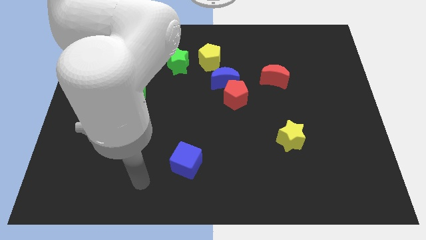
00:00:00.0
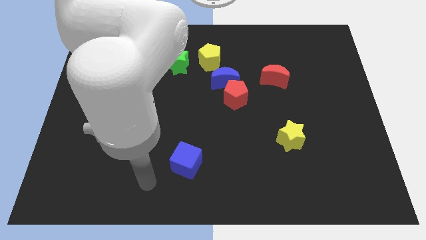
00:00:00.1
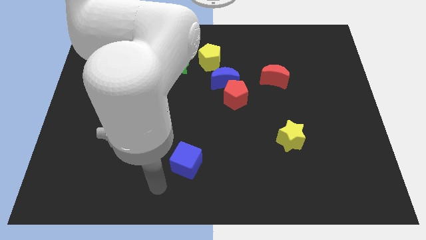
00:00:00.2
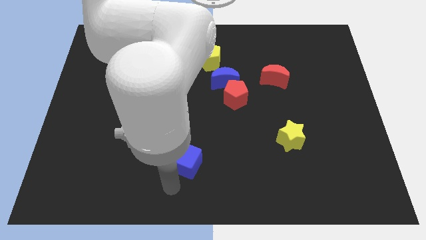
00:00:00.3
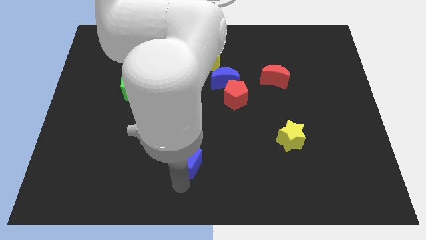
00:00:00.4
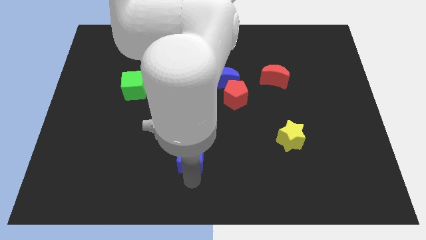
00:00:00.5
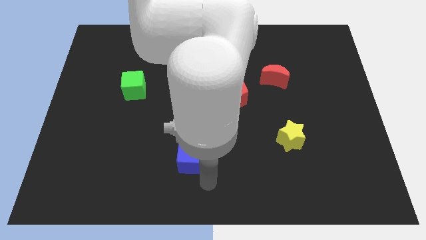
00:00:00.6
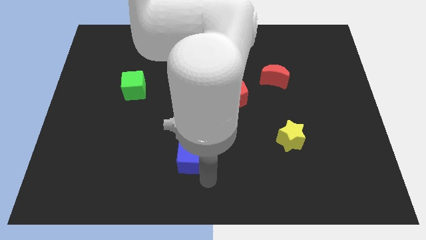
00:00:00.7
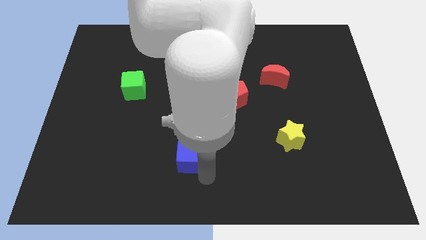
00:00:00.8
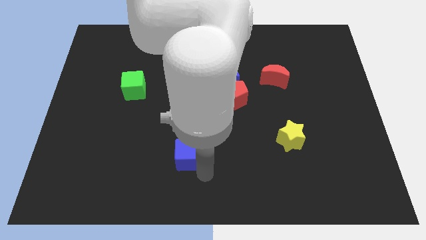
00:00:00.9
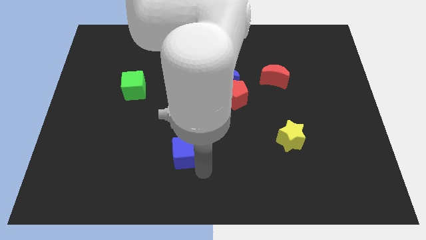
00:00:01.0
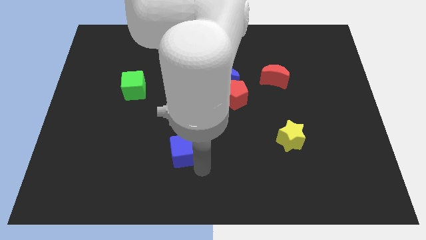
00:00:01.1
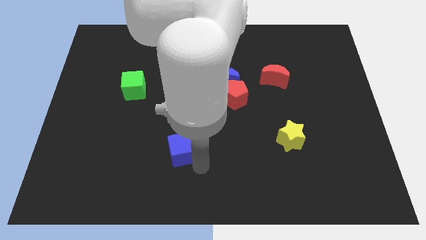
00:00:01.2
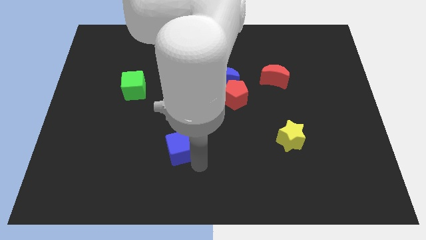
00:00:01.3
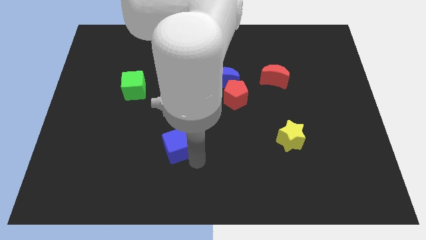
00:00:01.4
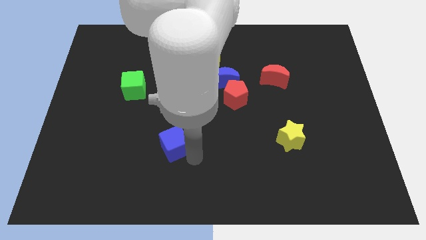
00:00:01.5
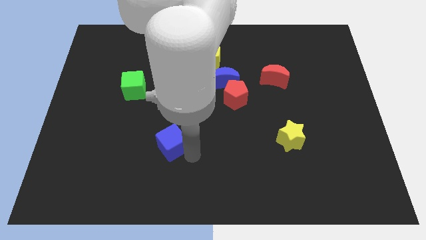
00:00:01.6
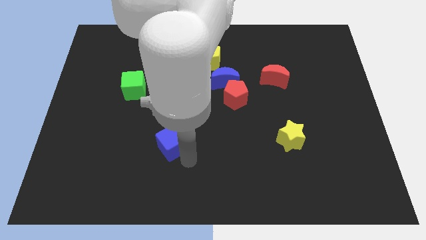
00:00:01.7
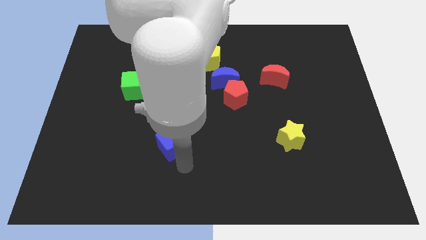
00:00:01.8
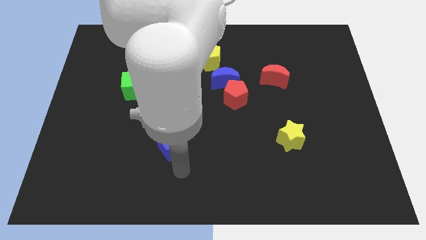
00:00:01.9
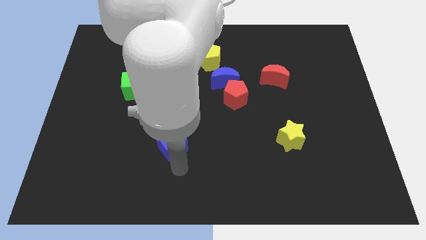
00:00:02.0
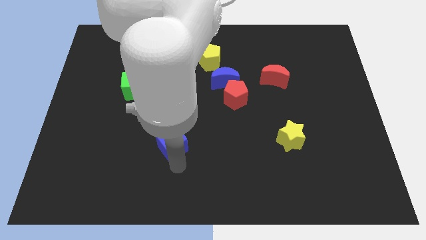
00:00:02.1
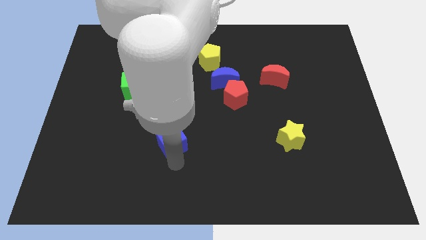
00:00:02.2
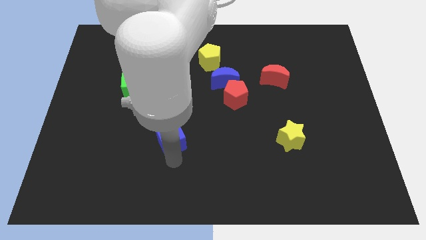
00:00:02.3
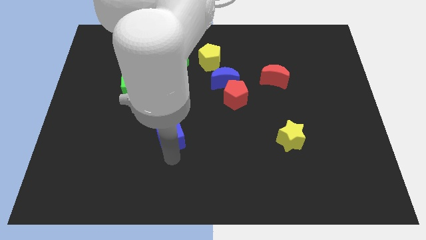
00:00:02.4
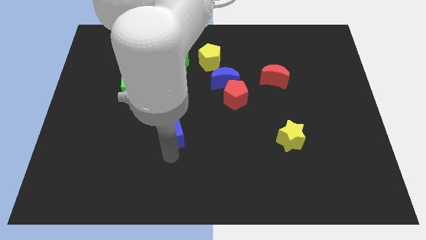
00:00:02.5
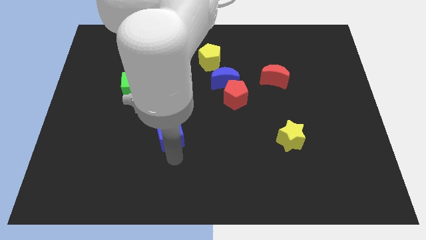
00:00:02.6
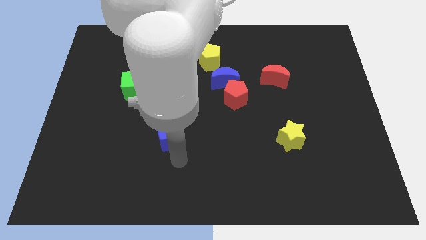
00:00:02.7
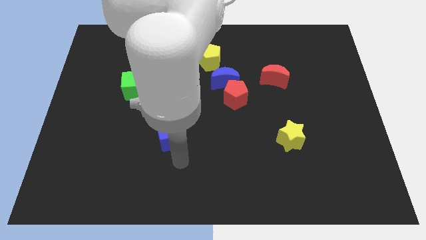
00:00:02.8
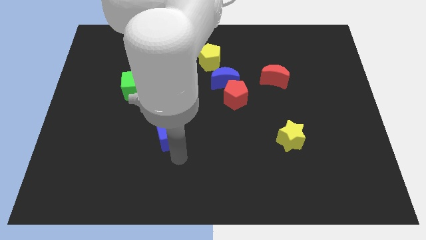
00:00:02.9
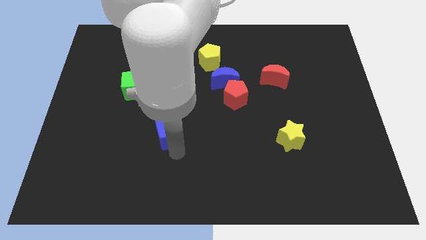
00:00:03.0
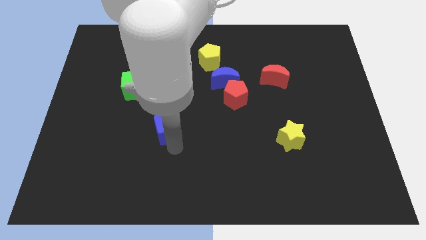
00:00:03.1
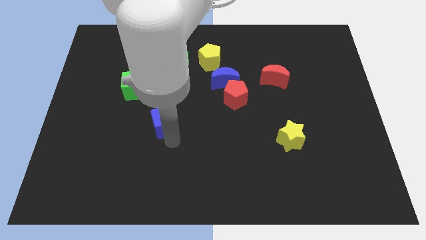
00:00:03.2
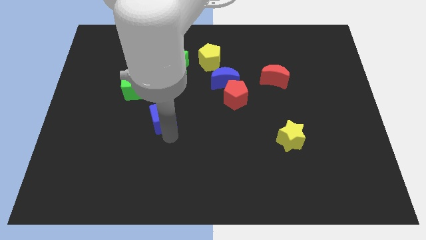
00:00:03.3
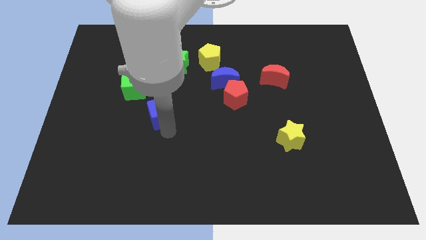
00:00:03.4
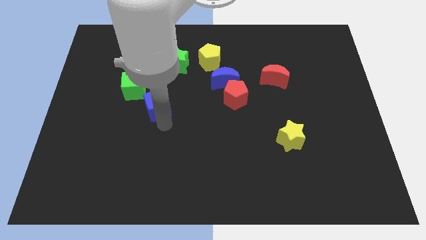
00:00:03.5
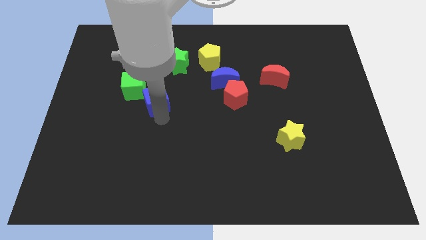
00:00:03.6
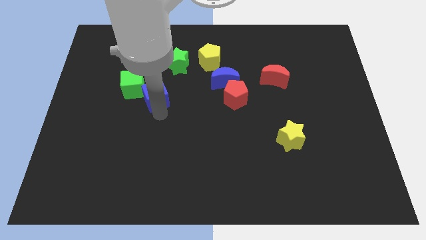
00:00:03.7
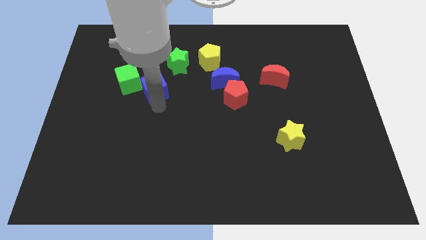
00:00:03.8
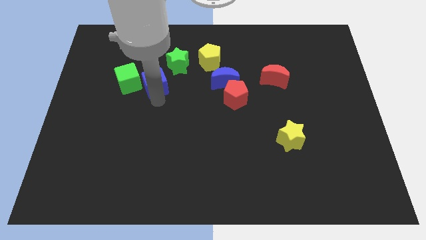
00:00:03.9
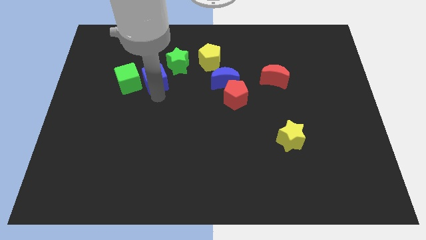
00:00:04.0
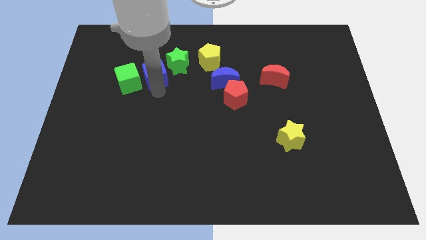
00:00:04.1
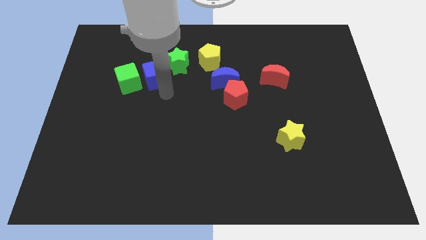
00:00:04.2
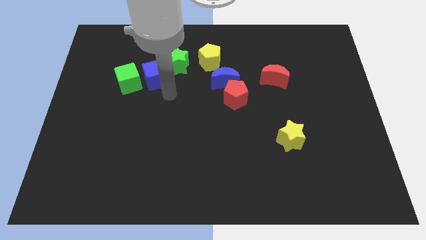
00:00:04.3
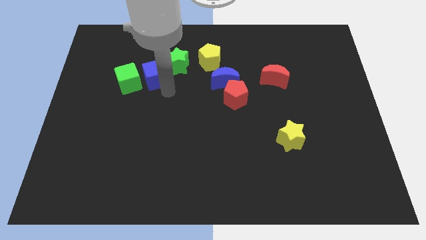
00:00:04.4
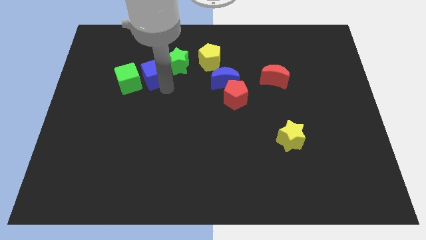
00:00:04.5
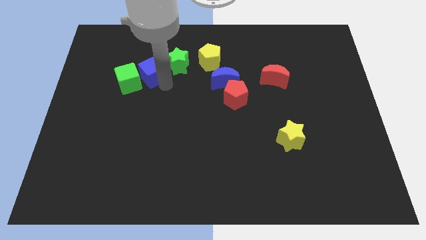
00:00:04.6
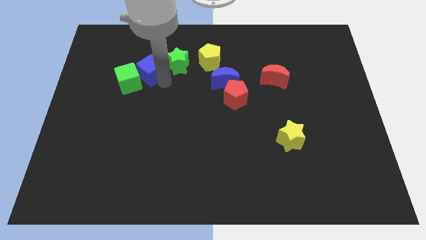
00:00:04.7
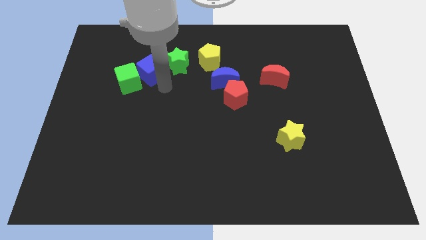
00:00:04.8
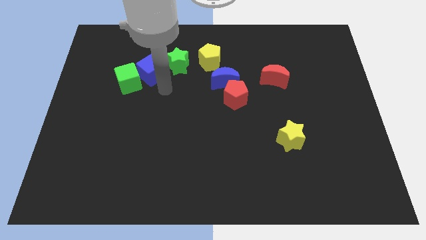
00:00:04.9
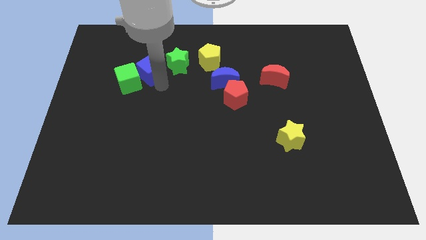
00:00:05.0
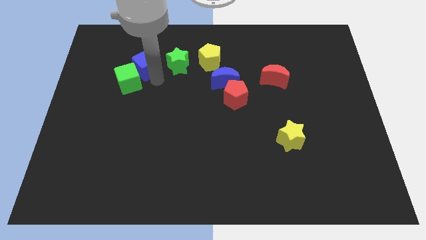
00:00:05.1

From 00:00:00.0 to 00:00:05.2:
slide the blue cube to the top of the green cube

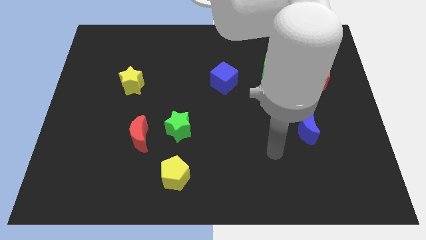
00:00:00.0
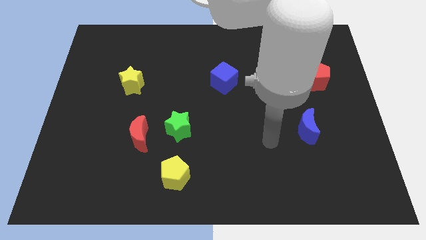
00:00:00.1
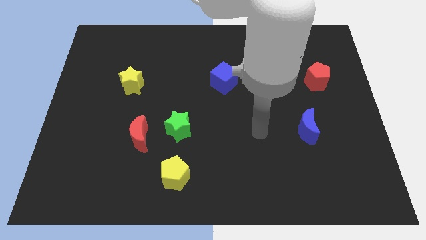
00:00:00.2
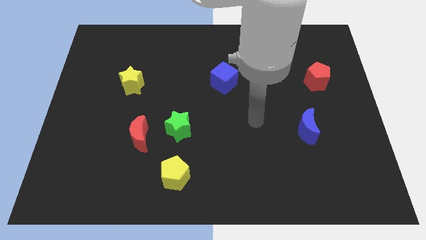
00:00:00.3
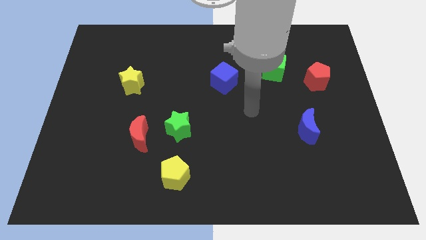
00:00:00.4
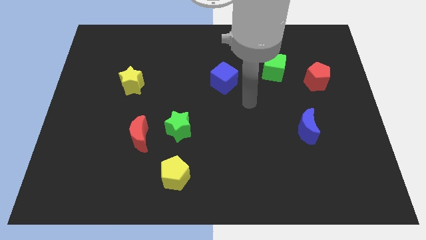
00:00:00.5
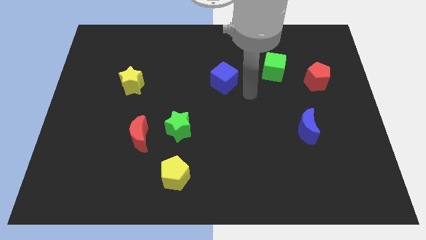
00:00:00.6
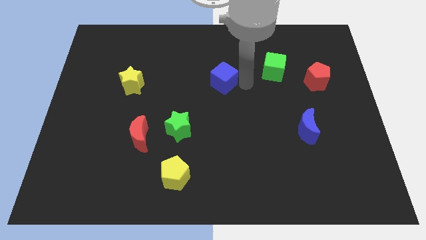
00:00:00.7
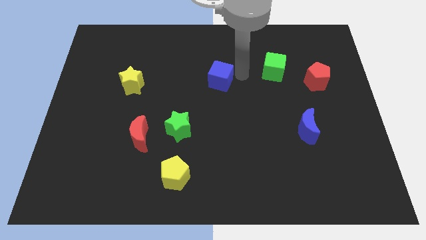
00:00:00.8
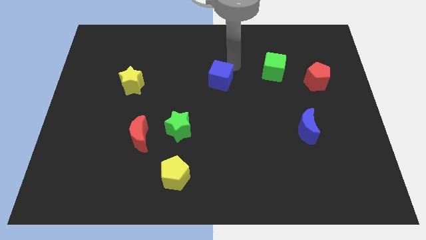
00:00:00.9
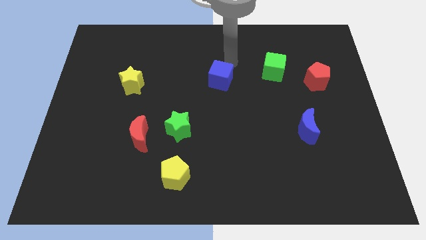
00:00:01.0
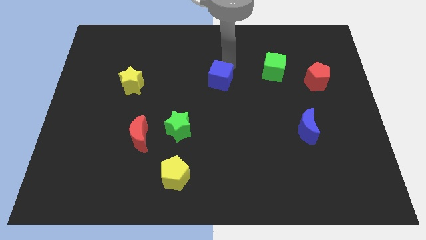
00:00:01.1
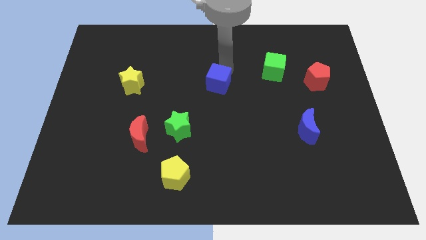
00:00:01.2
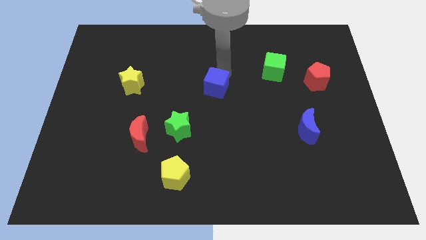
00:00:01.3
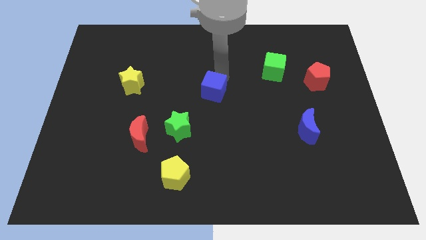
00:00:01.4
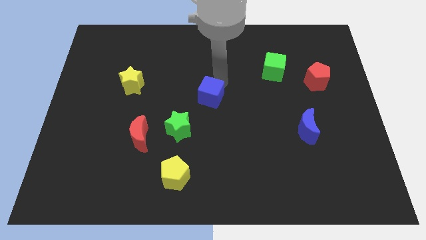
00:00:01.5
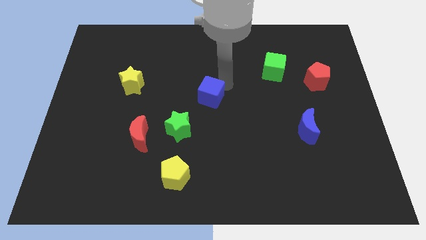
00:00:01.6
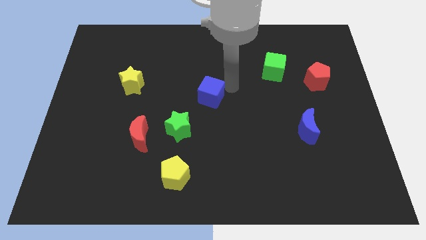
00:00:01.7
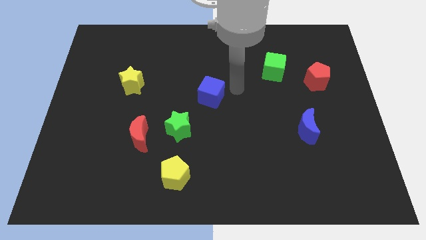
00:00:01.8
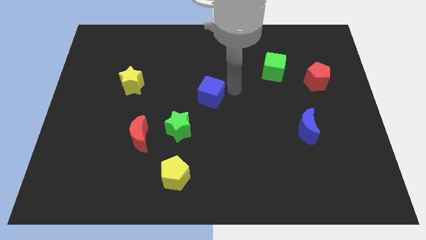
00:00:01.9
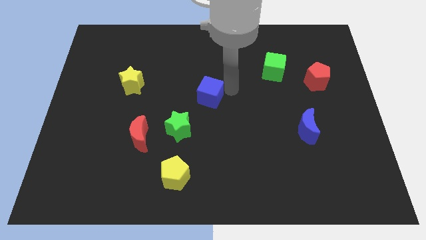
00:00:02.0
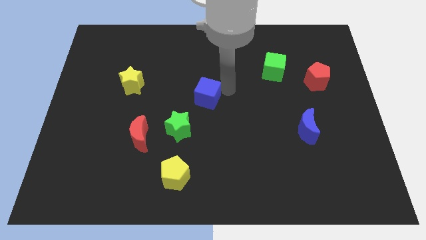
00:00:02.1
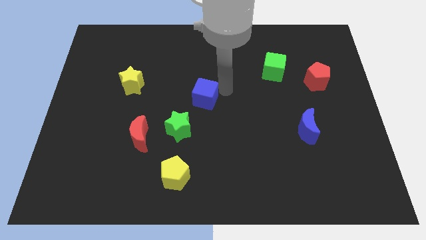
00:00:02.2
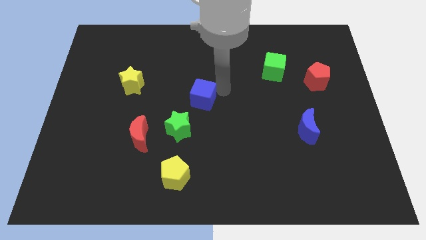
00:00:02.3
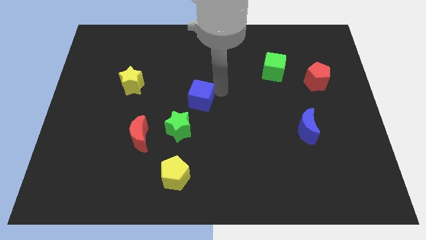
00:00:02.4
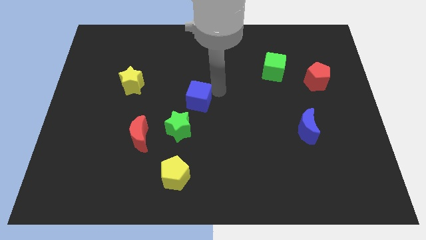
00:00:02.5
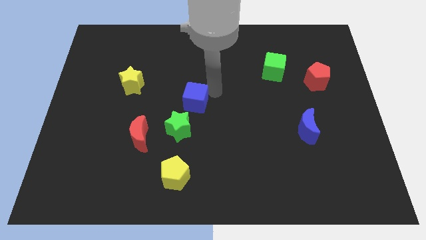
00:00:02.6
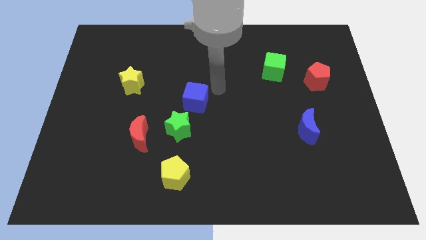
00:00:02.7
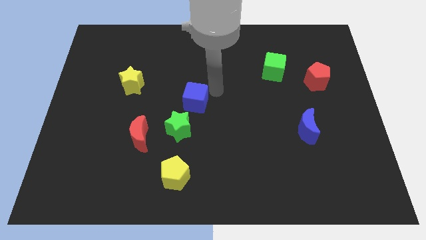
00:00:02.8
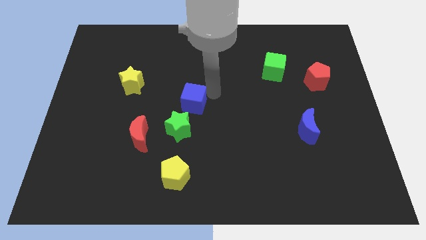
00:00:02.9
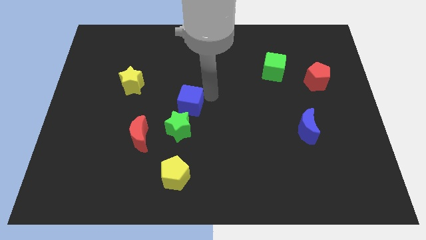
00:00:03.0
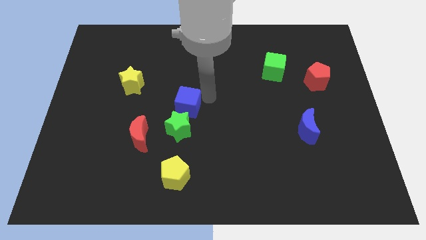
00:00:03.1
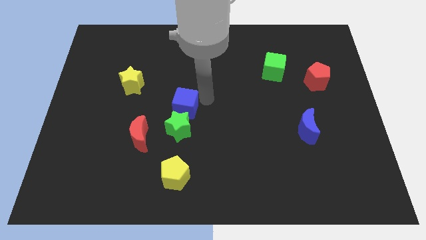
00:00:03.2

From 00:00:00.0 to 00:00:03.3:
push the blue cube to the top right of the red moon
